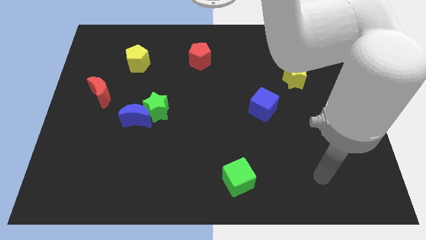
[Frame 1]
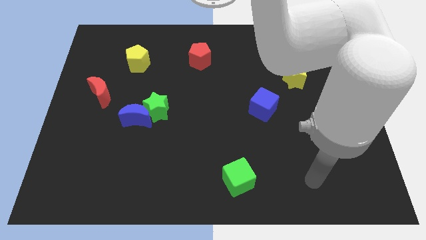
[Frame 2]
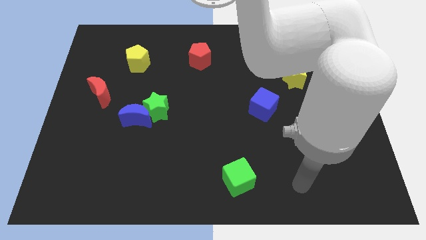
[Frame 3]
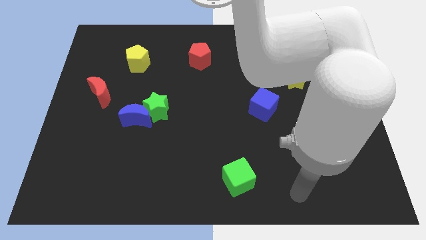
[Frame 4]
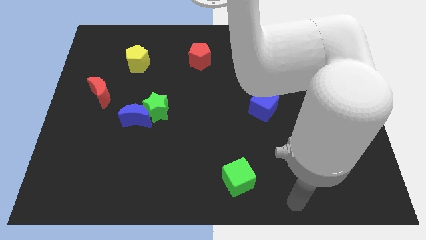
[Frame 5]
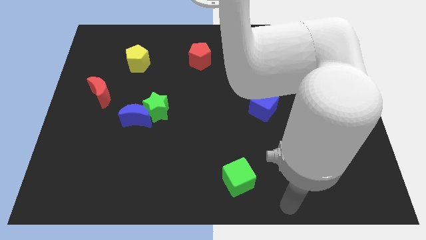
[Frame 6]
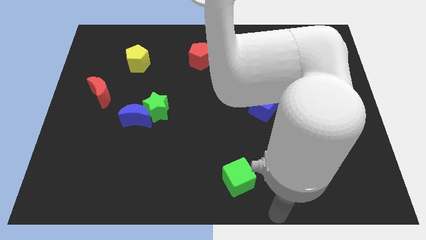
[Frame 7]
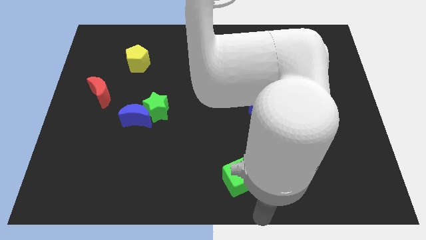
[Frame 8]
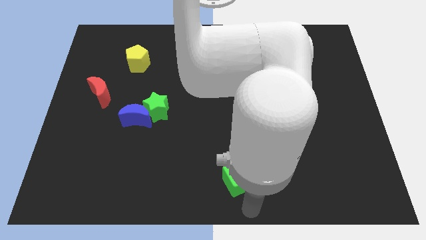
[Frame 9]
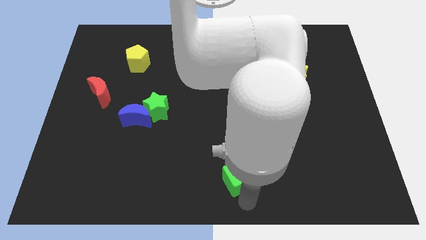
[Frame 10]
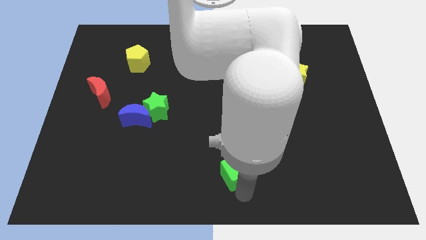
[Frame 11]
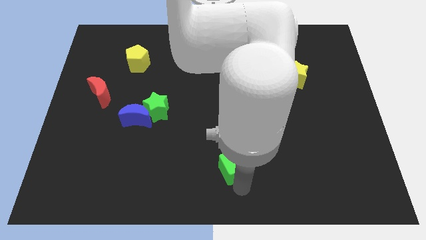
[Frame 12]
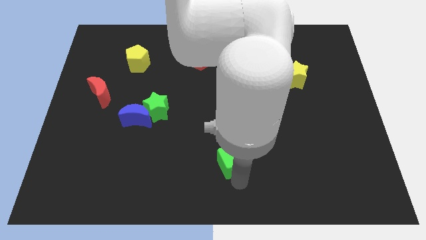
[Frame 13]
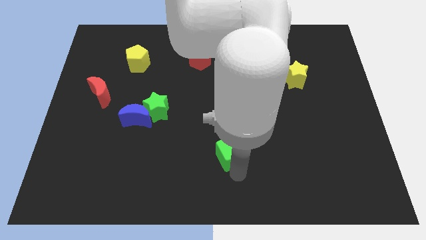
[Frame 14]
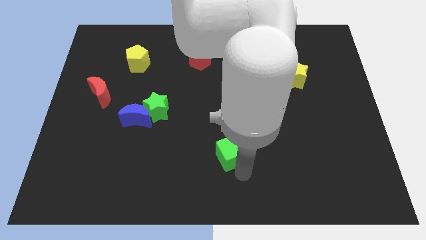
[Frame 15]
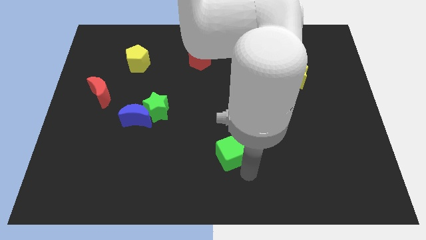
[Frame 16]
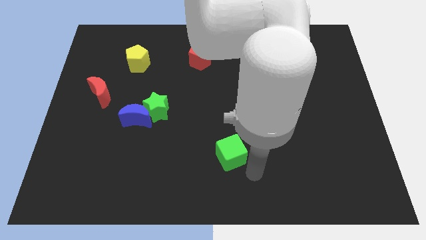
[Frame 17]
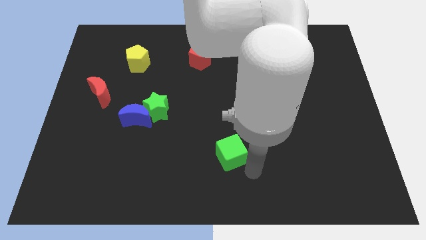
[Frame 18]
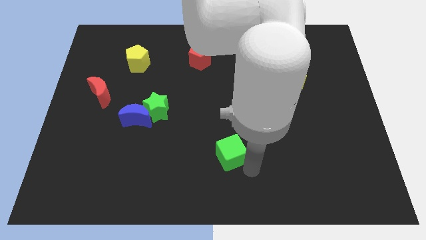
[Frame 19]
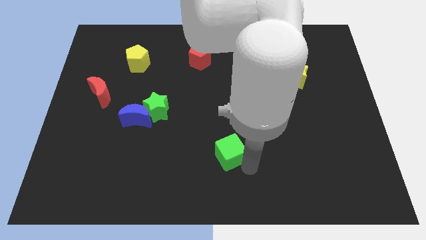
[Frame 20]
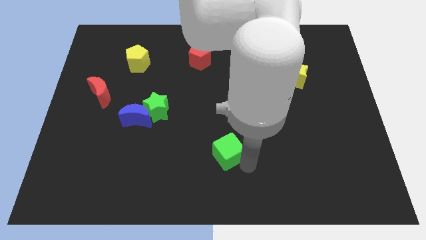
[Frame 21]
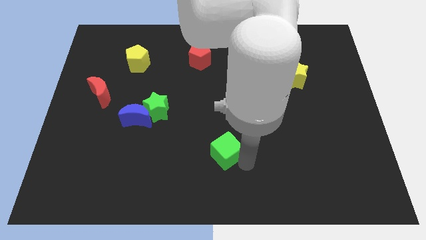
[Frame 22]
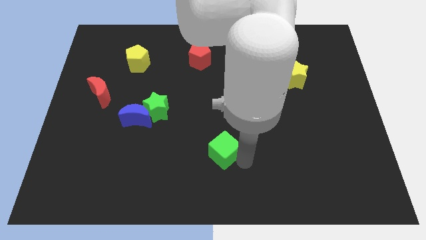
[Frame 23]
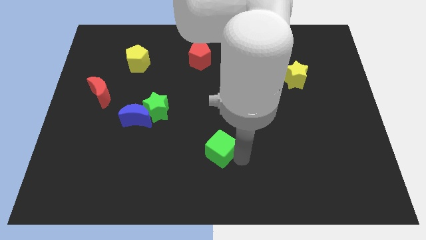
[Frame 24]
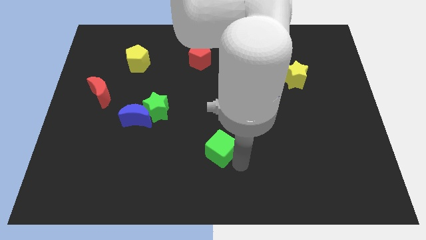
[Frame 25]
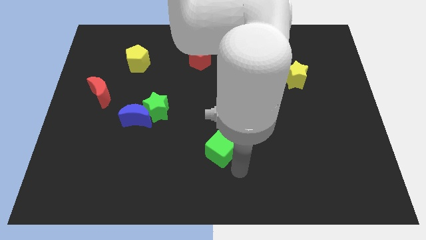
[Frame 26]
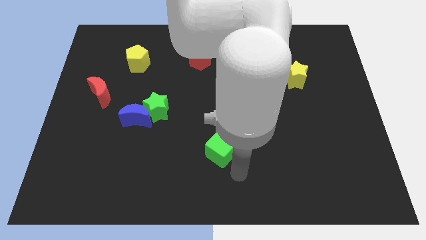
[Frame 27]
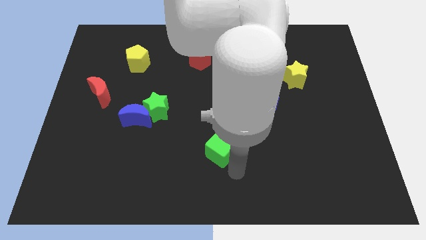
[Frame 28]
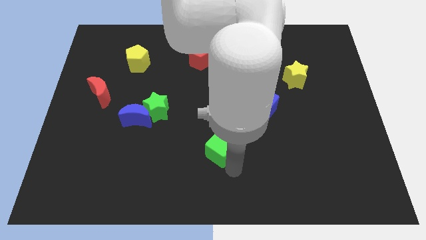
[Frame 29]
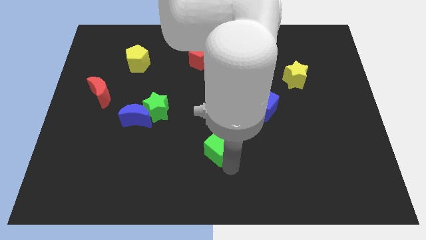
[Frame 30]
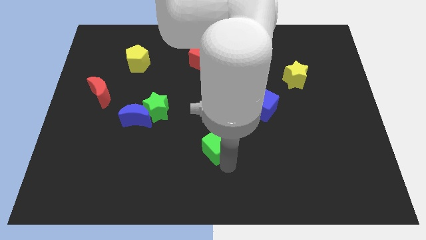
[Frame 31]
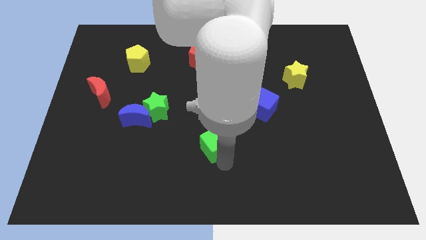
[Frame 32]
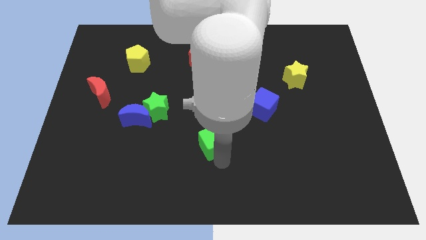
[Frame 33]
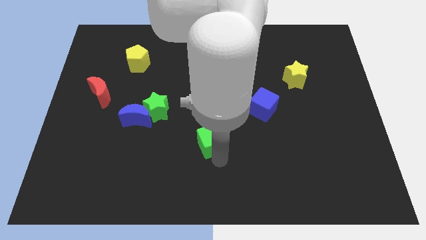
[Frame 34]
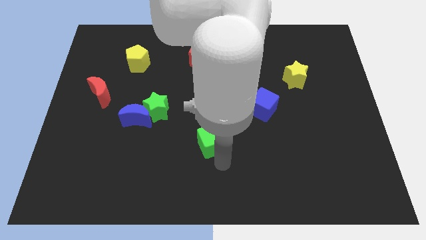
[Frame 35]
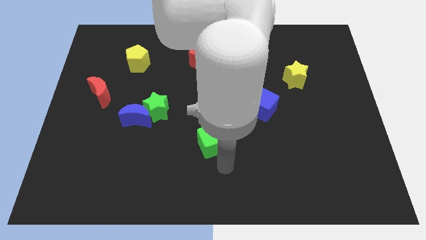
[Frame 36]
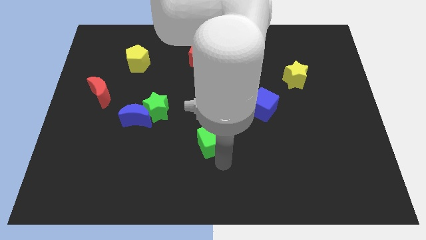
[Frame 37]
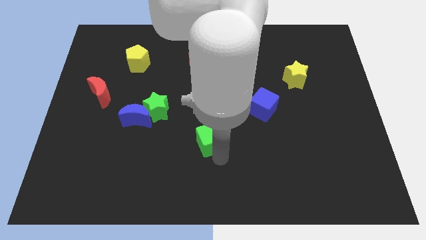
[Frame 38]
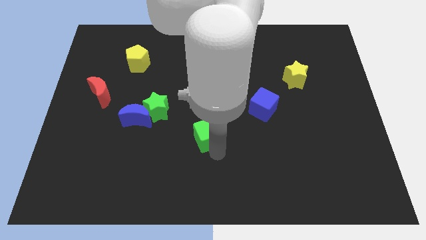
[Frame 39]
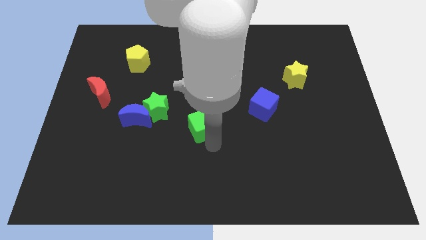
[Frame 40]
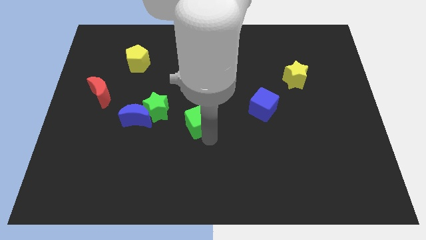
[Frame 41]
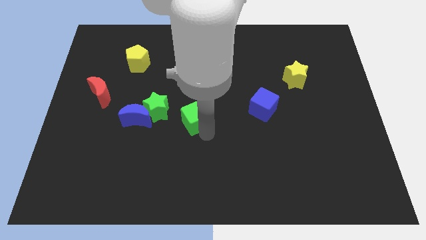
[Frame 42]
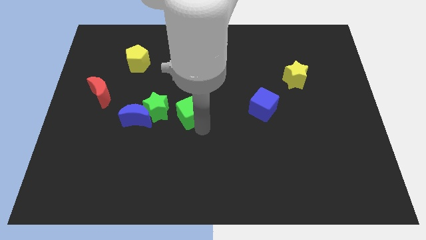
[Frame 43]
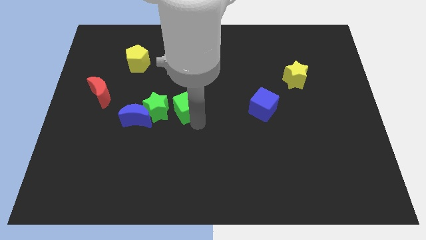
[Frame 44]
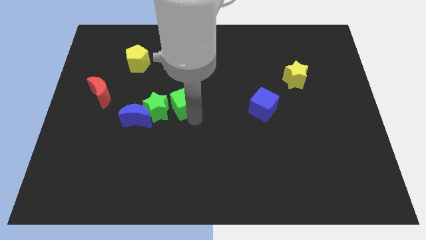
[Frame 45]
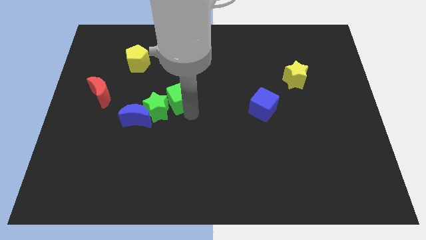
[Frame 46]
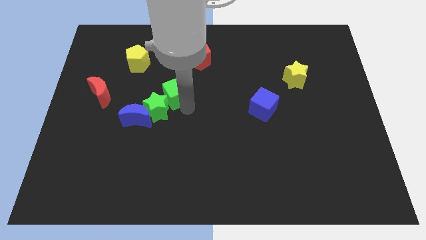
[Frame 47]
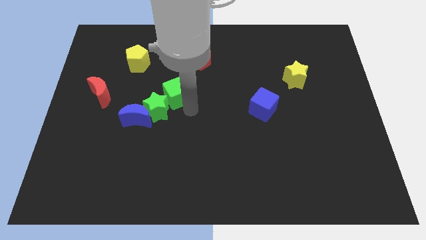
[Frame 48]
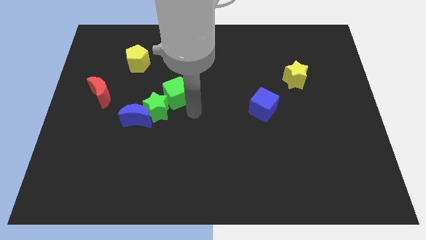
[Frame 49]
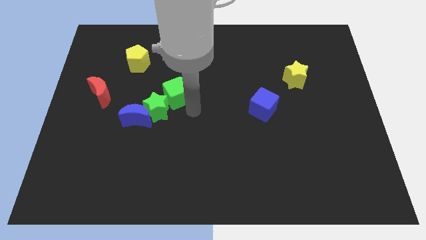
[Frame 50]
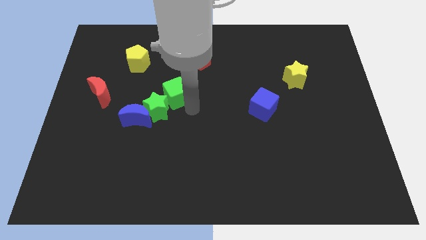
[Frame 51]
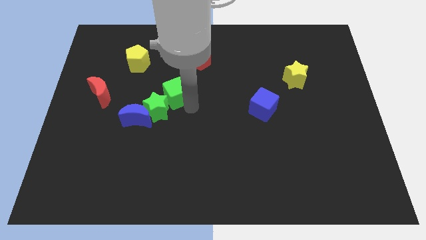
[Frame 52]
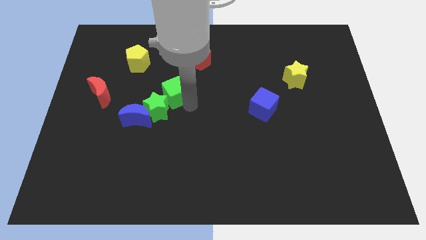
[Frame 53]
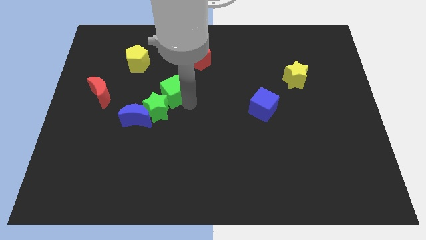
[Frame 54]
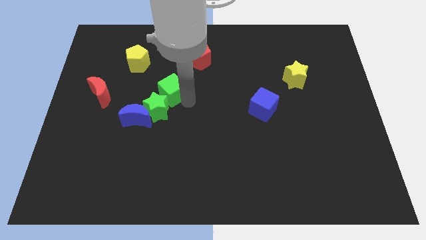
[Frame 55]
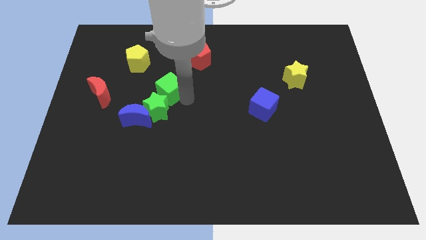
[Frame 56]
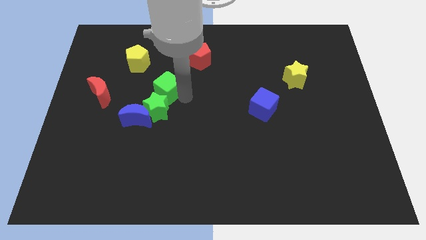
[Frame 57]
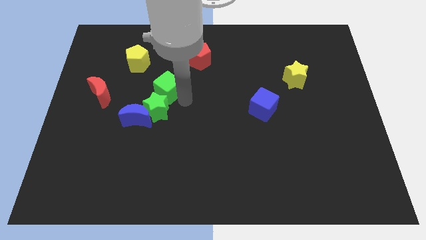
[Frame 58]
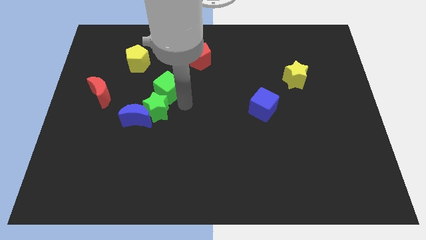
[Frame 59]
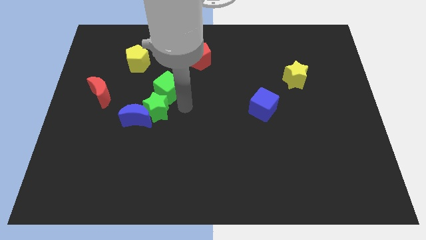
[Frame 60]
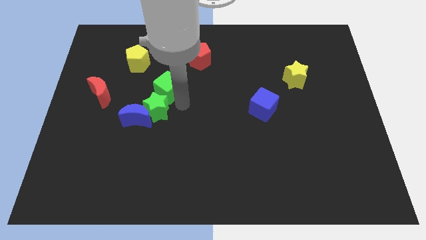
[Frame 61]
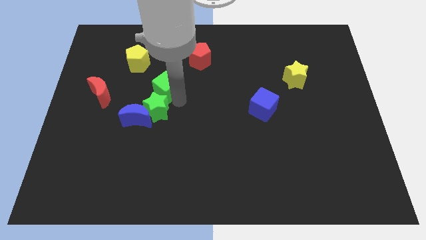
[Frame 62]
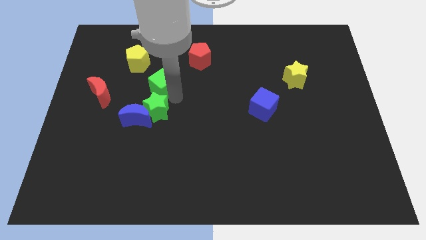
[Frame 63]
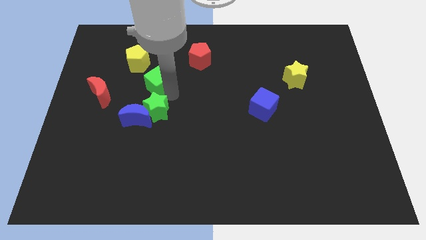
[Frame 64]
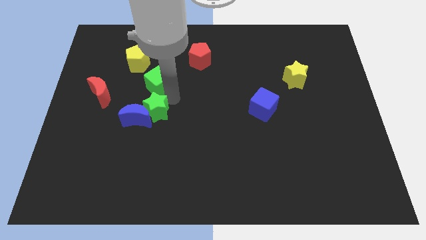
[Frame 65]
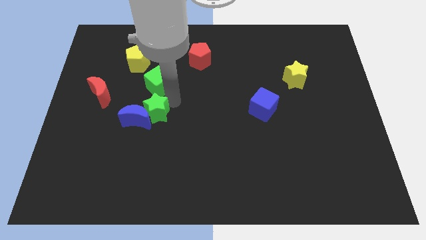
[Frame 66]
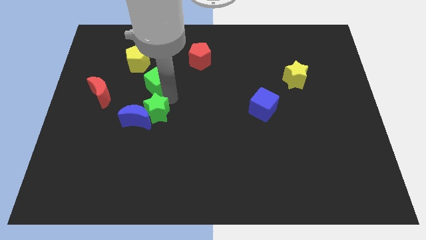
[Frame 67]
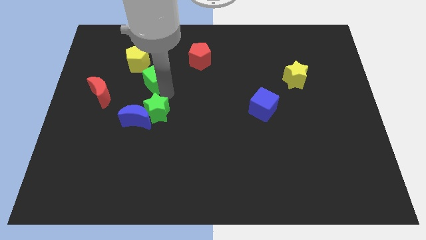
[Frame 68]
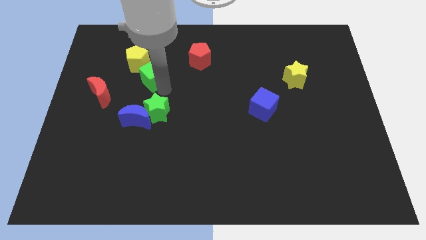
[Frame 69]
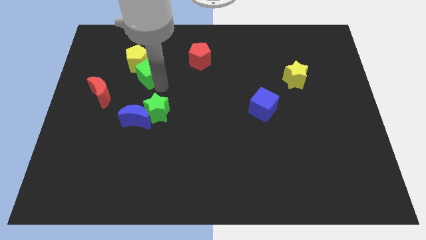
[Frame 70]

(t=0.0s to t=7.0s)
push the green cube to the yellow pentagon

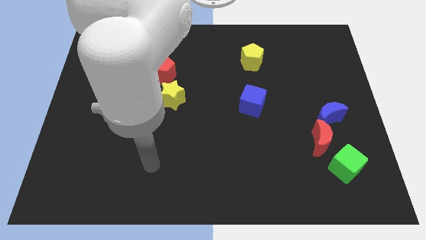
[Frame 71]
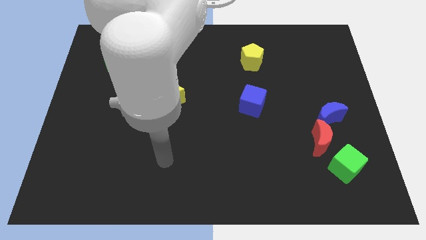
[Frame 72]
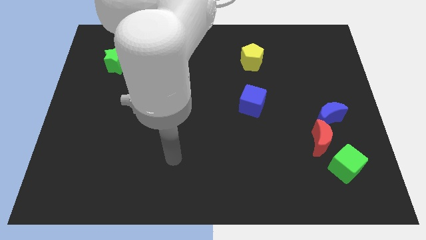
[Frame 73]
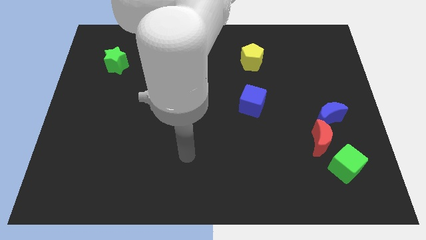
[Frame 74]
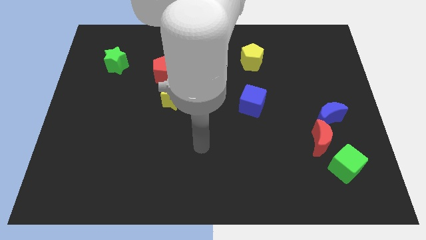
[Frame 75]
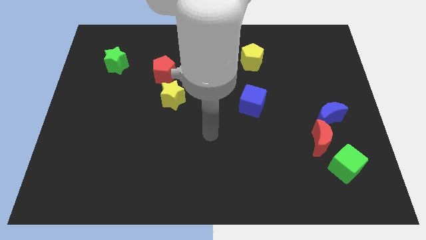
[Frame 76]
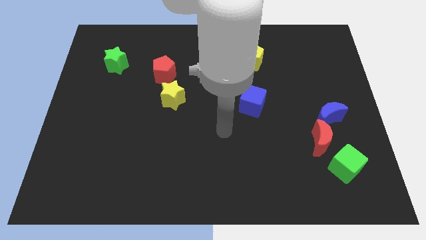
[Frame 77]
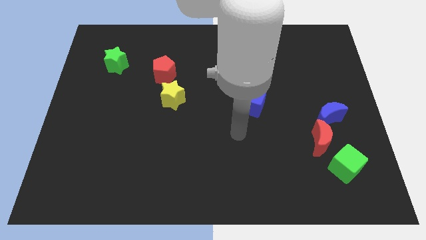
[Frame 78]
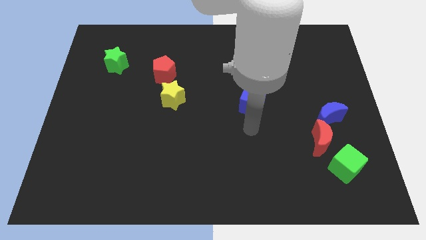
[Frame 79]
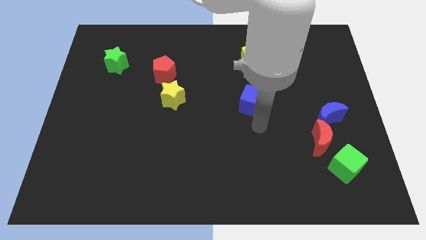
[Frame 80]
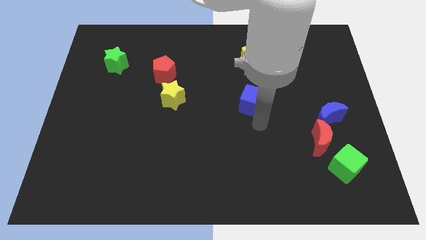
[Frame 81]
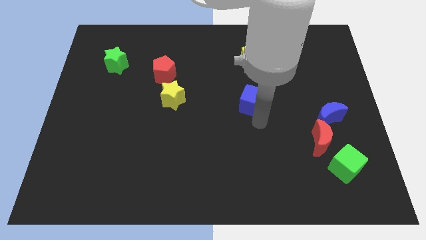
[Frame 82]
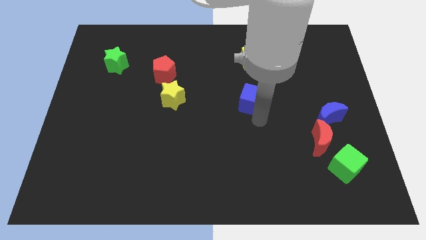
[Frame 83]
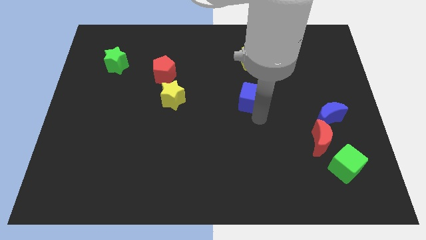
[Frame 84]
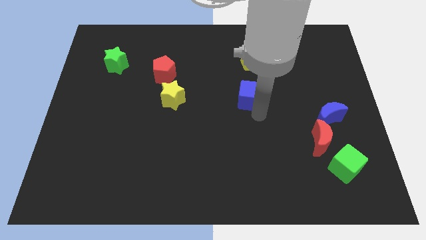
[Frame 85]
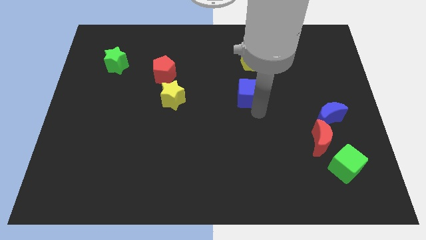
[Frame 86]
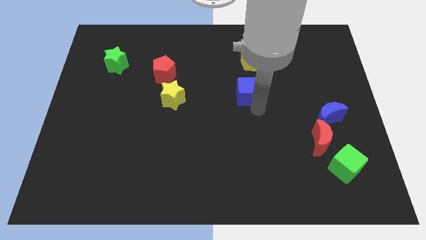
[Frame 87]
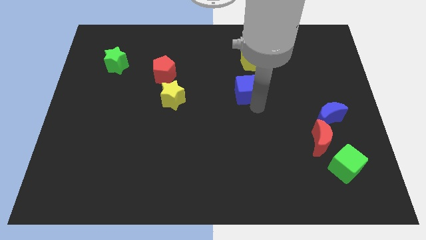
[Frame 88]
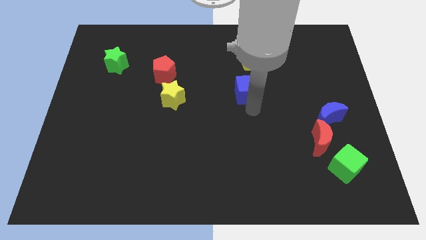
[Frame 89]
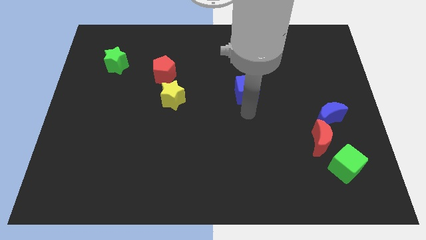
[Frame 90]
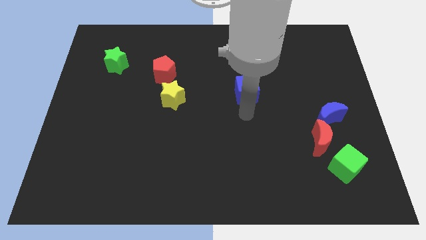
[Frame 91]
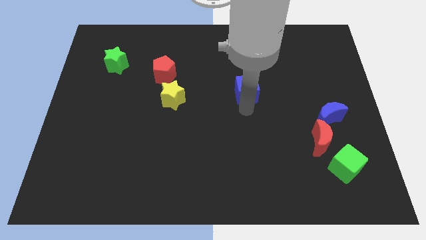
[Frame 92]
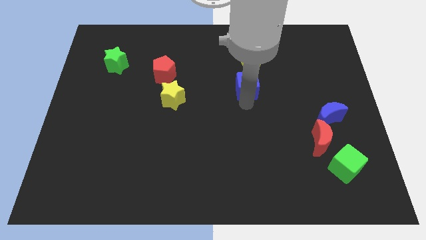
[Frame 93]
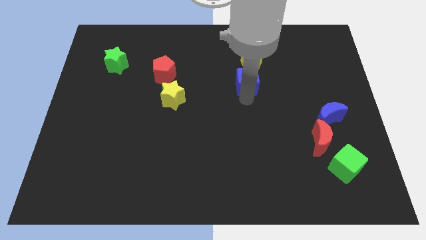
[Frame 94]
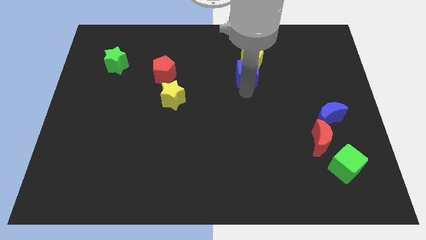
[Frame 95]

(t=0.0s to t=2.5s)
slide the blue cube close to the yellow pentagon
